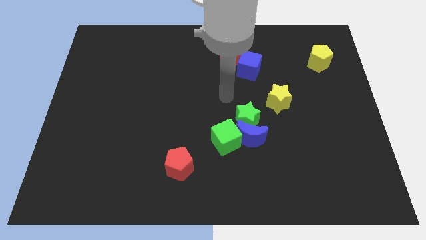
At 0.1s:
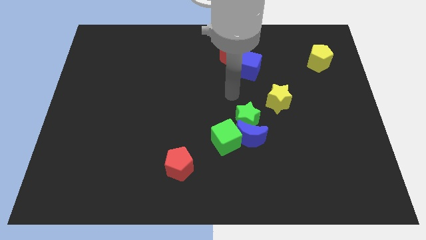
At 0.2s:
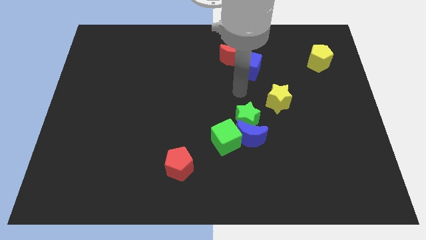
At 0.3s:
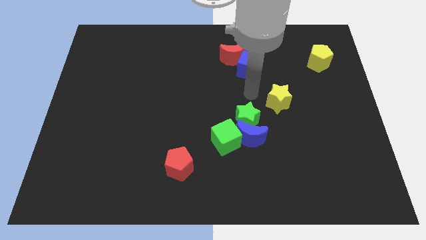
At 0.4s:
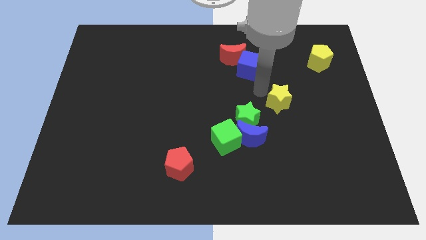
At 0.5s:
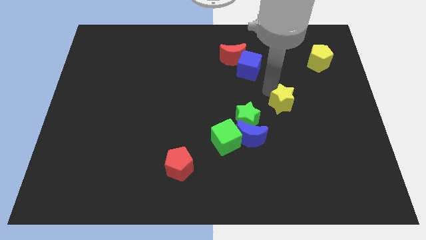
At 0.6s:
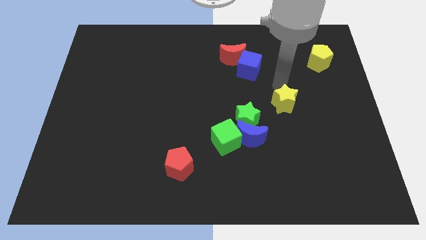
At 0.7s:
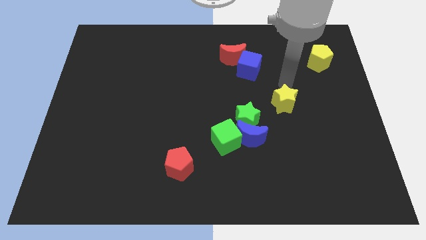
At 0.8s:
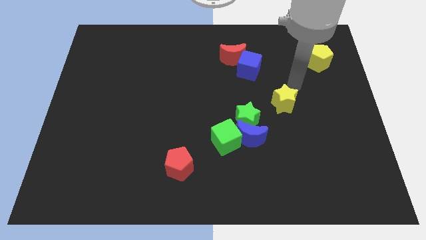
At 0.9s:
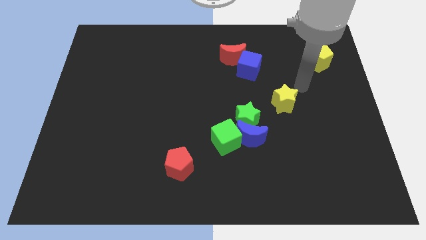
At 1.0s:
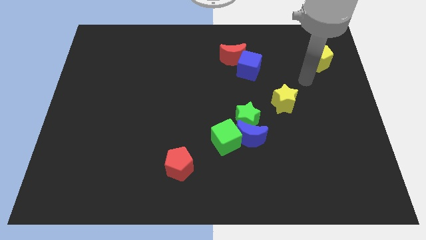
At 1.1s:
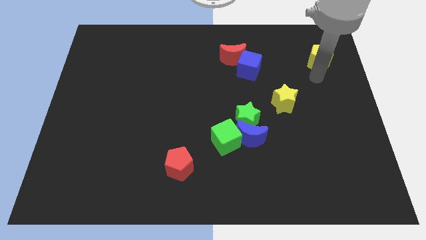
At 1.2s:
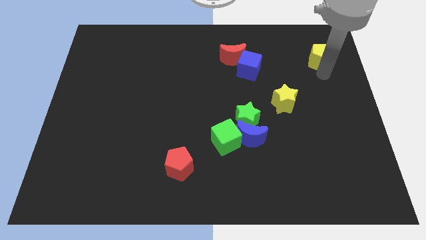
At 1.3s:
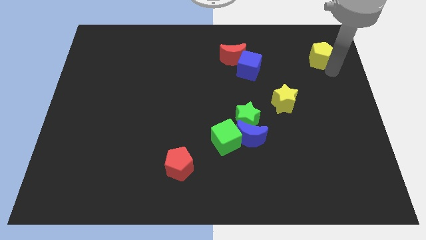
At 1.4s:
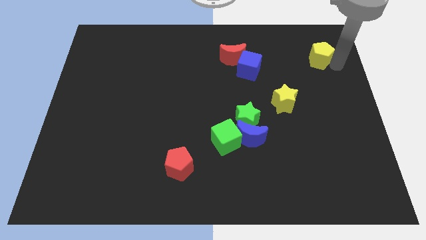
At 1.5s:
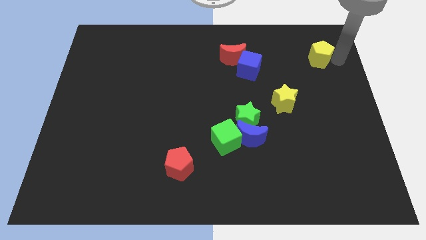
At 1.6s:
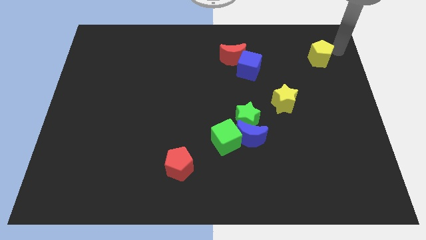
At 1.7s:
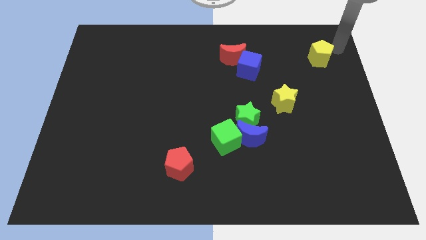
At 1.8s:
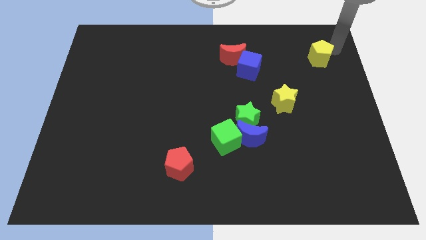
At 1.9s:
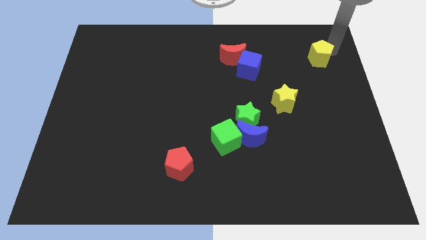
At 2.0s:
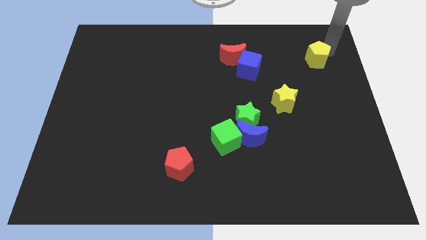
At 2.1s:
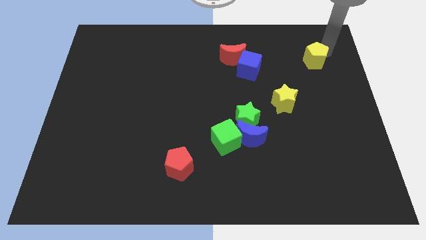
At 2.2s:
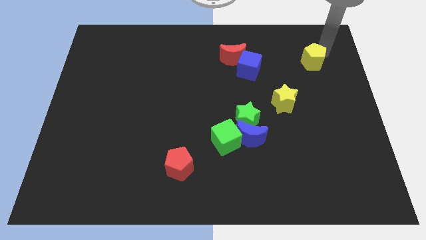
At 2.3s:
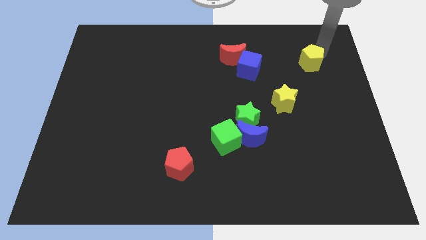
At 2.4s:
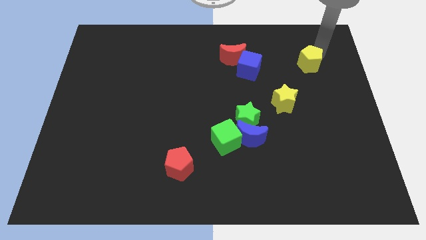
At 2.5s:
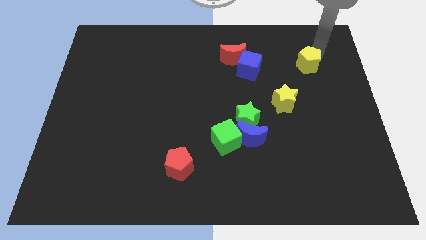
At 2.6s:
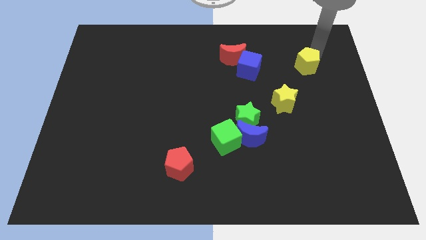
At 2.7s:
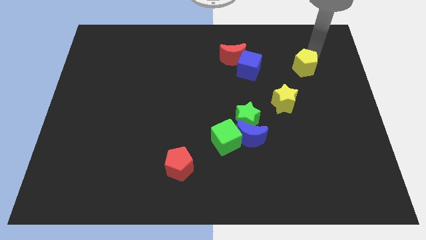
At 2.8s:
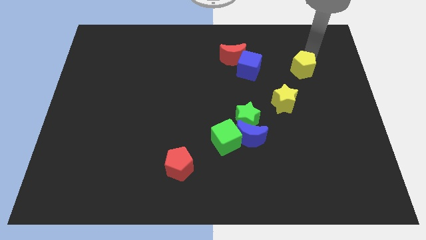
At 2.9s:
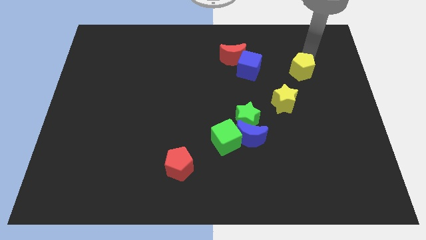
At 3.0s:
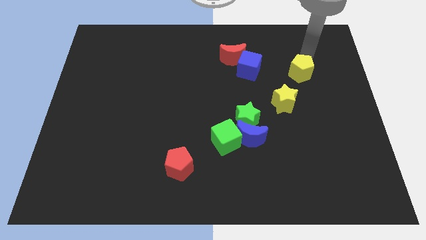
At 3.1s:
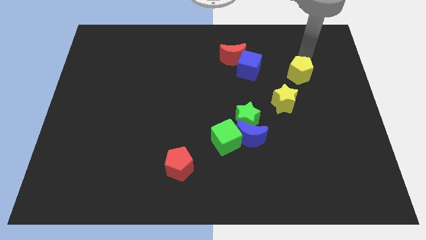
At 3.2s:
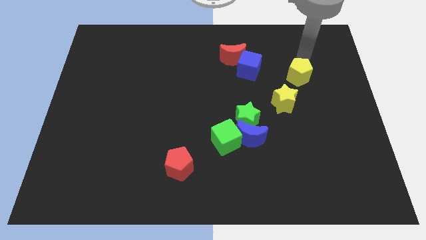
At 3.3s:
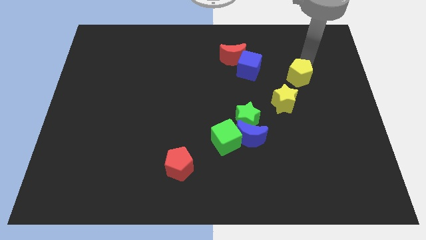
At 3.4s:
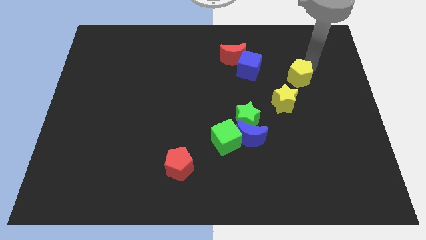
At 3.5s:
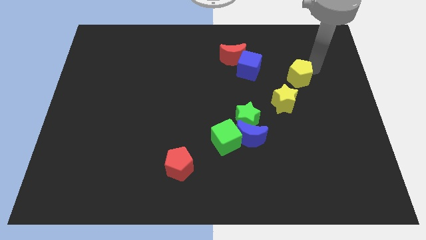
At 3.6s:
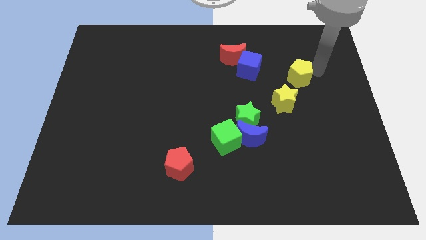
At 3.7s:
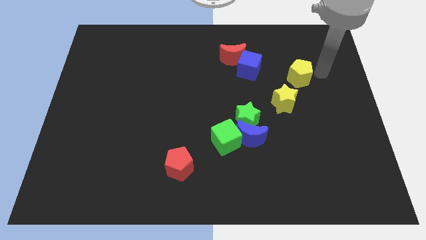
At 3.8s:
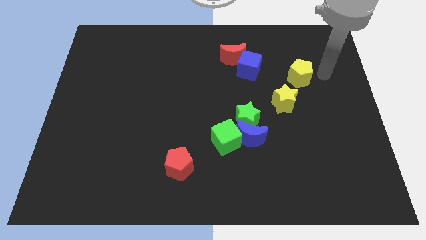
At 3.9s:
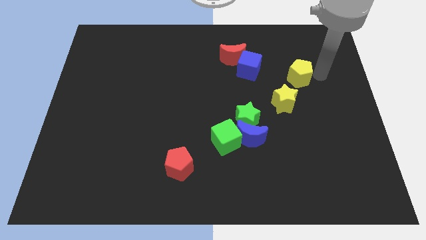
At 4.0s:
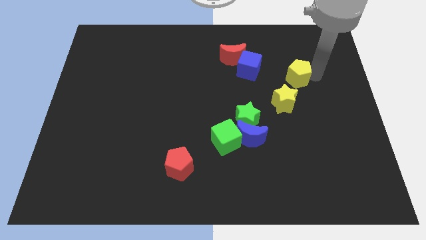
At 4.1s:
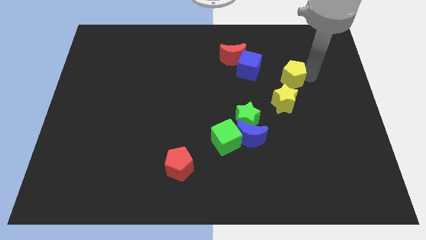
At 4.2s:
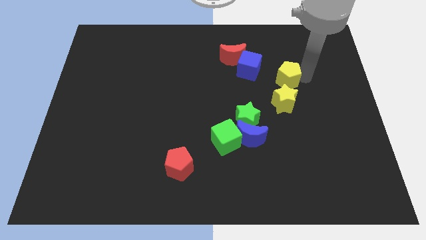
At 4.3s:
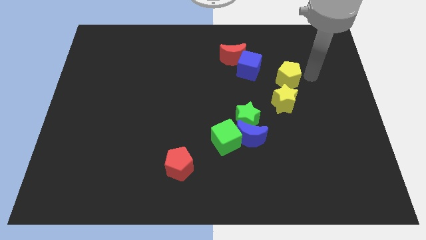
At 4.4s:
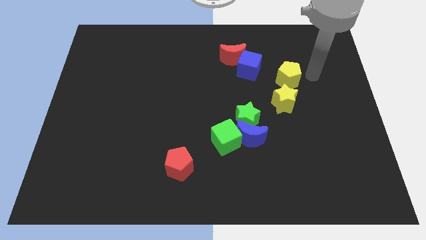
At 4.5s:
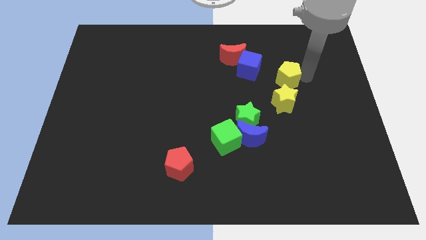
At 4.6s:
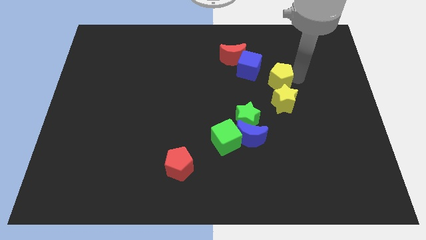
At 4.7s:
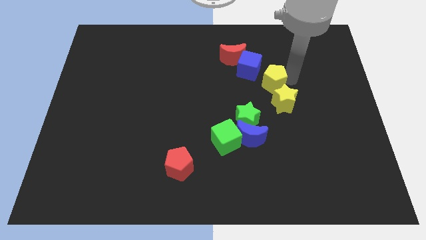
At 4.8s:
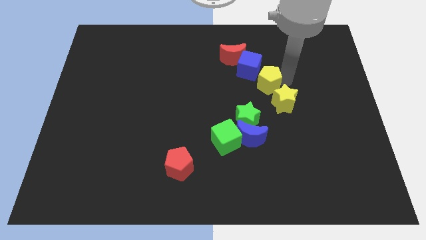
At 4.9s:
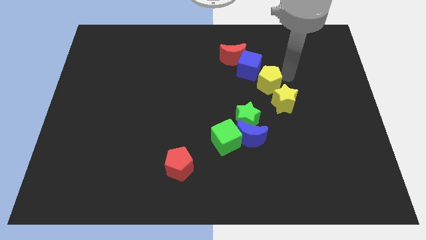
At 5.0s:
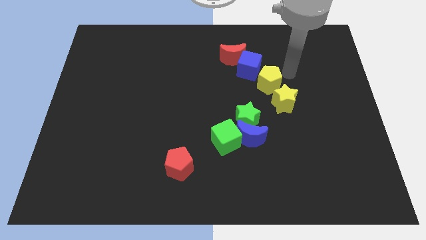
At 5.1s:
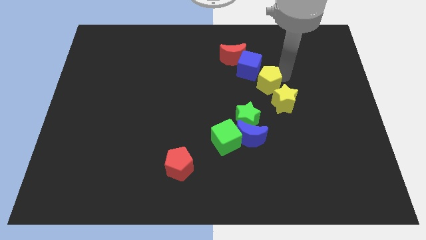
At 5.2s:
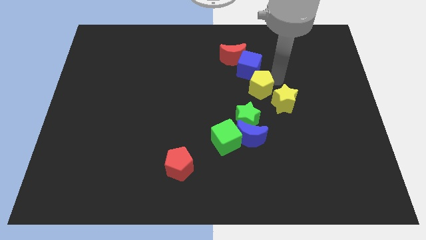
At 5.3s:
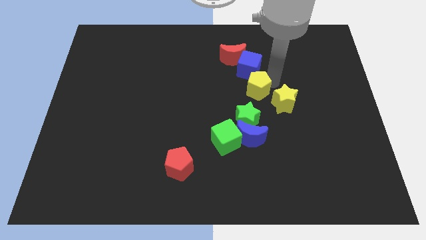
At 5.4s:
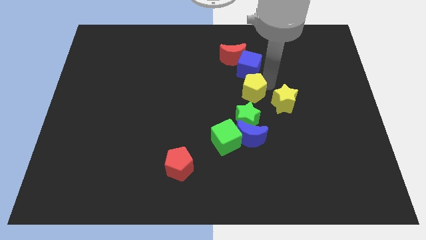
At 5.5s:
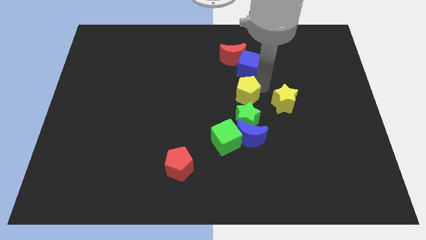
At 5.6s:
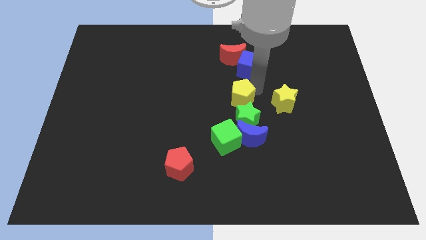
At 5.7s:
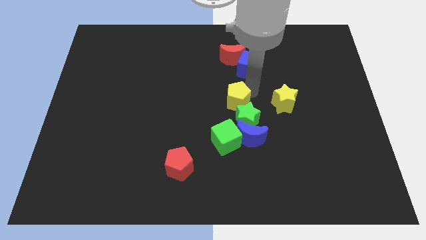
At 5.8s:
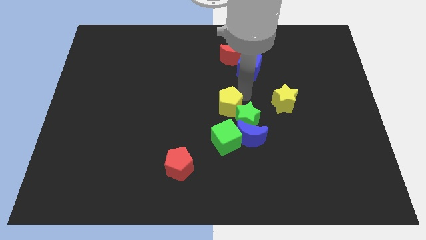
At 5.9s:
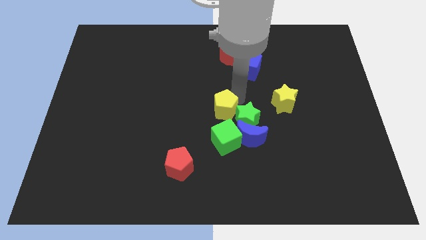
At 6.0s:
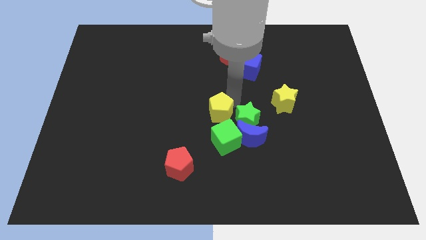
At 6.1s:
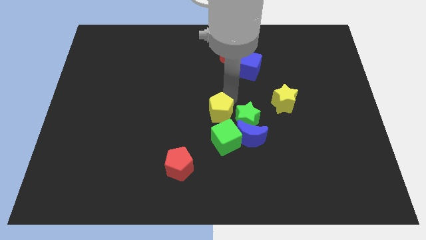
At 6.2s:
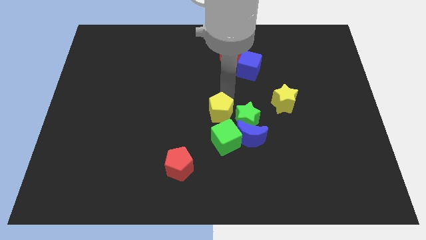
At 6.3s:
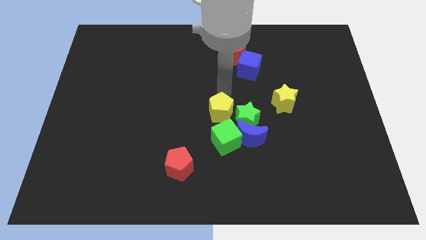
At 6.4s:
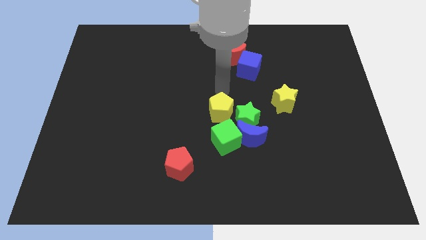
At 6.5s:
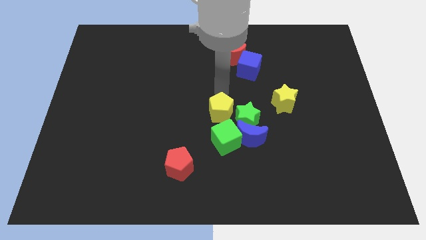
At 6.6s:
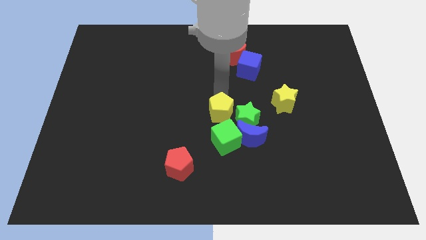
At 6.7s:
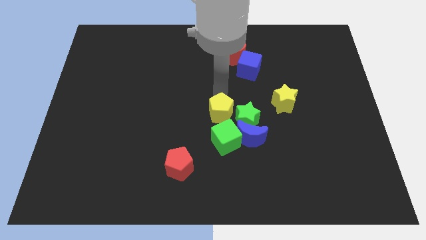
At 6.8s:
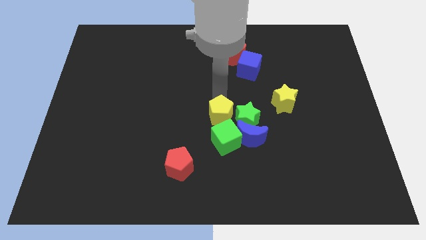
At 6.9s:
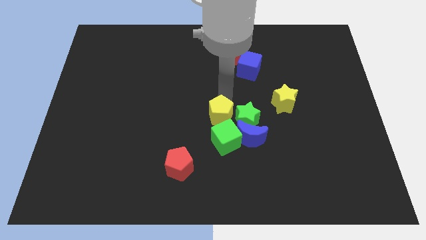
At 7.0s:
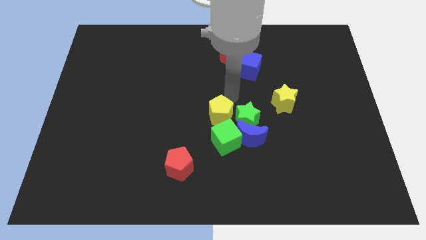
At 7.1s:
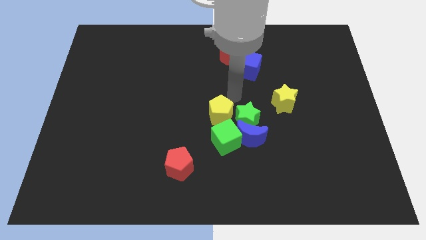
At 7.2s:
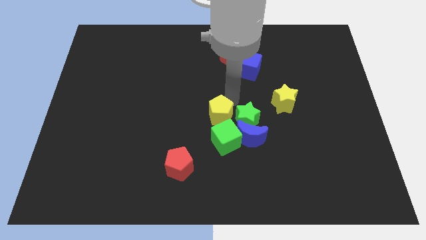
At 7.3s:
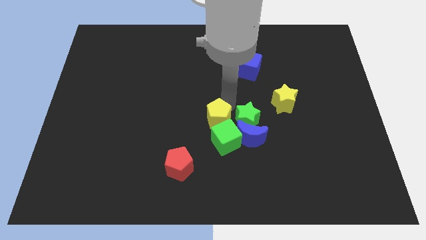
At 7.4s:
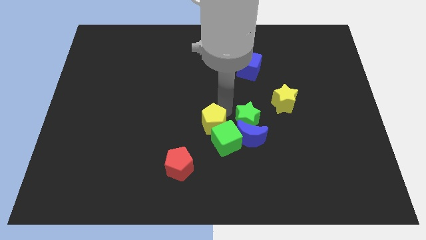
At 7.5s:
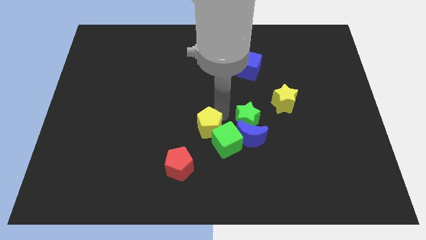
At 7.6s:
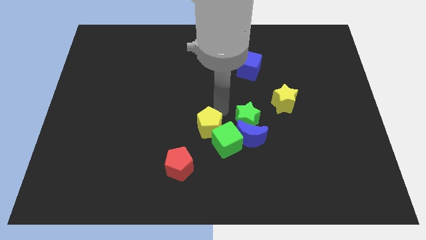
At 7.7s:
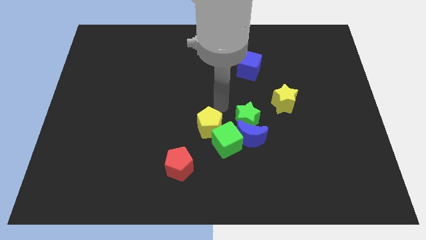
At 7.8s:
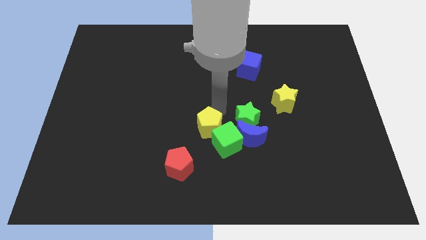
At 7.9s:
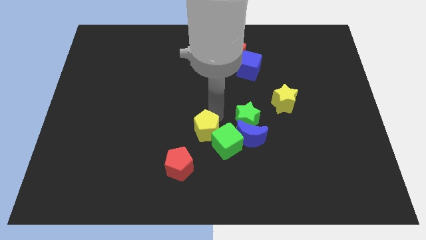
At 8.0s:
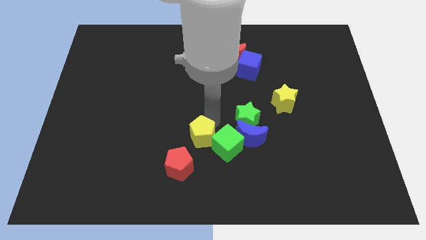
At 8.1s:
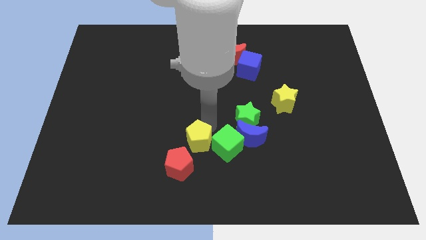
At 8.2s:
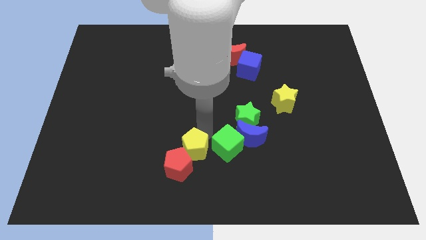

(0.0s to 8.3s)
push the yellow pentagon towards the red pentagon
